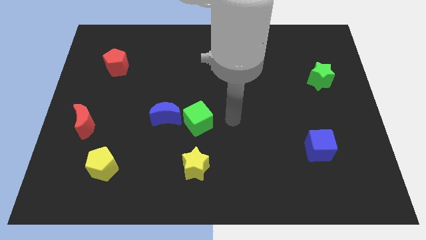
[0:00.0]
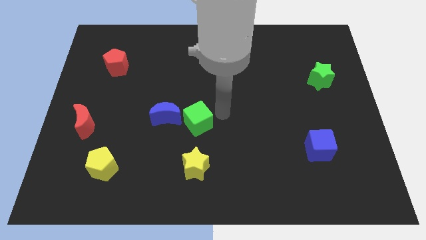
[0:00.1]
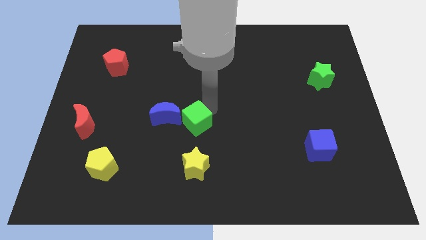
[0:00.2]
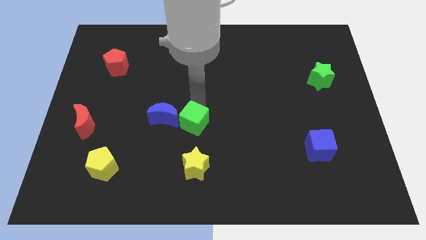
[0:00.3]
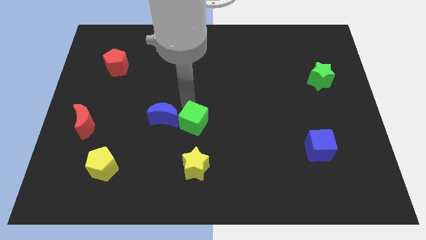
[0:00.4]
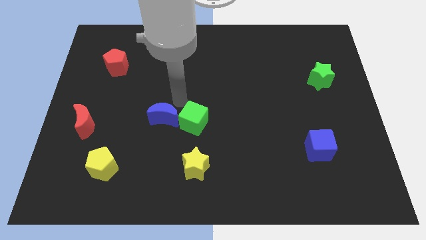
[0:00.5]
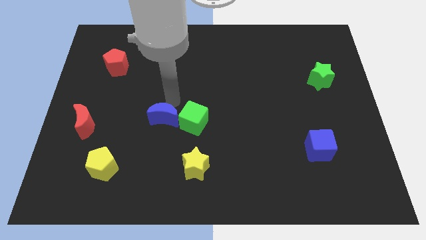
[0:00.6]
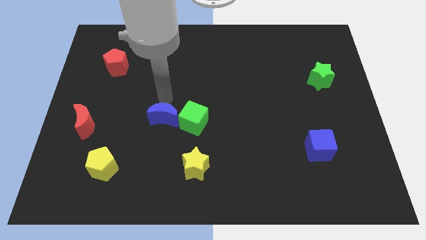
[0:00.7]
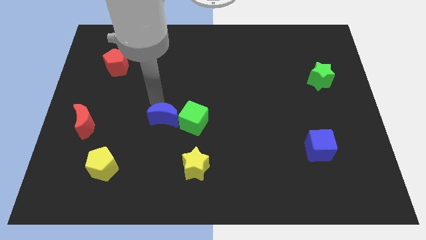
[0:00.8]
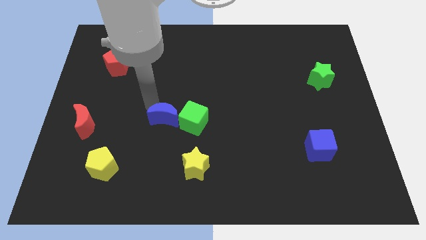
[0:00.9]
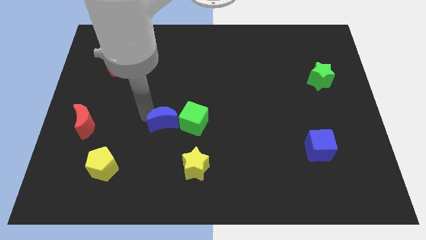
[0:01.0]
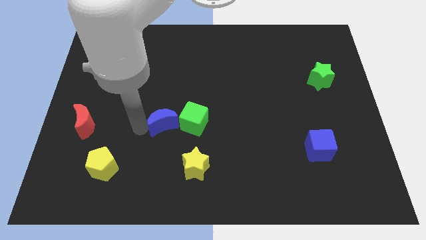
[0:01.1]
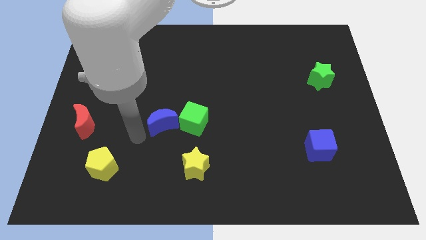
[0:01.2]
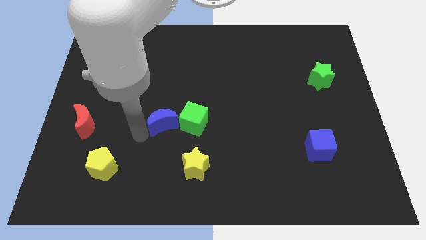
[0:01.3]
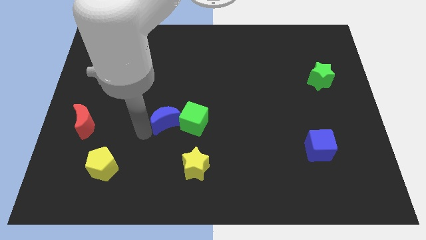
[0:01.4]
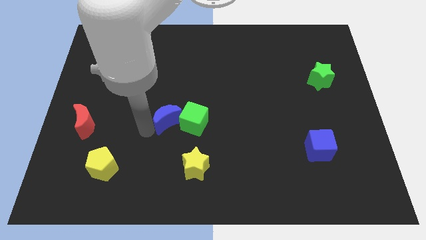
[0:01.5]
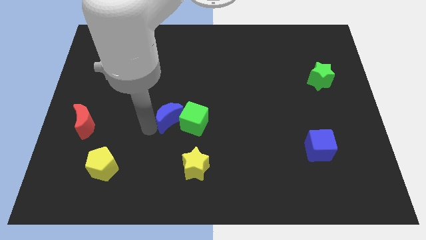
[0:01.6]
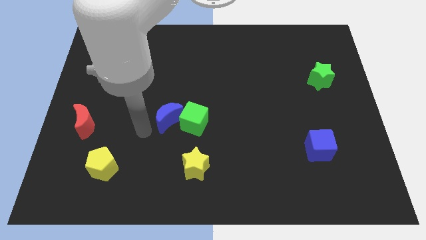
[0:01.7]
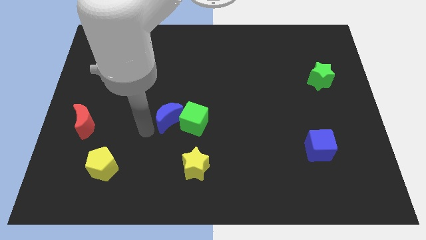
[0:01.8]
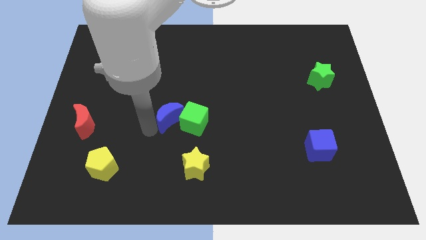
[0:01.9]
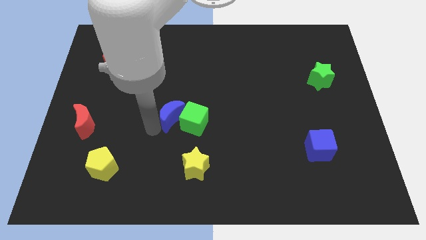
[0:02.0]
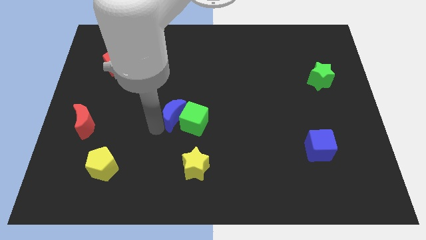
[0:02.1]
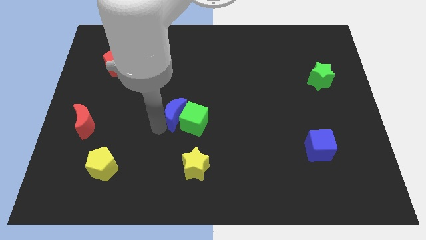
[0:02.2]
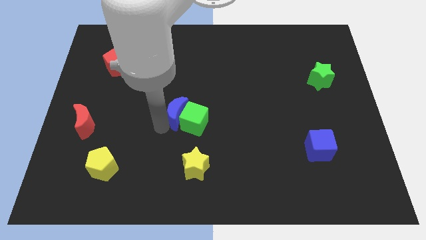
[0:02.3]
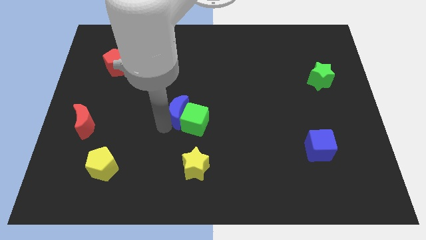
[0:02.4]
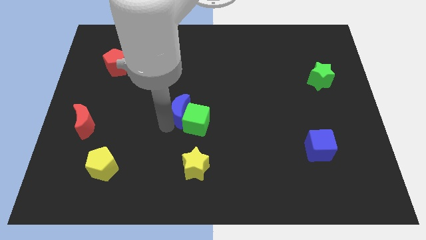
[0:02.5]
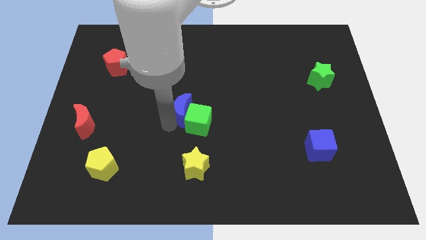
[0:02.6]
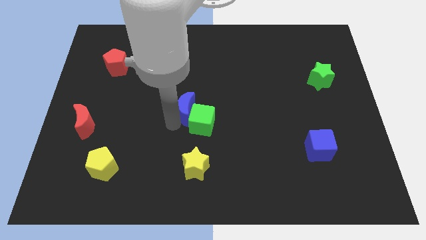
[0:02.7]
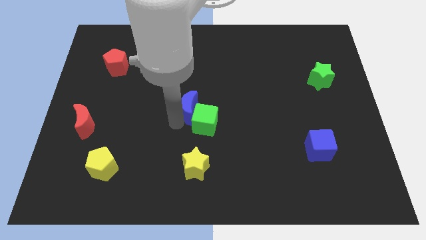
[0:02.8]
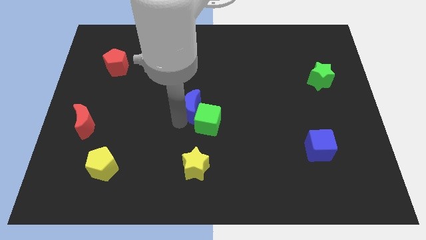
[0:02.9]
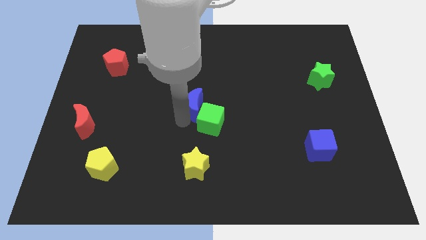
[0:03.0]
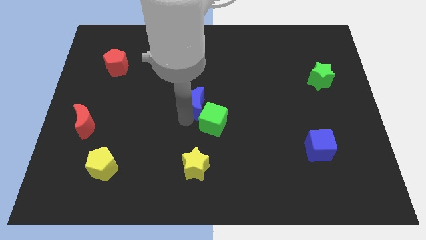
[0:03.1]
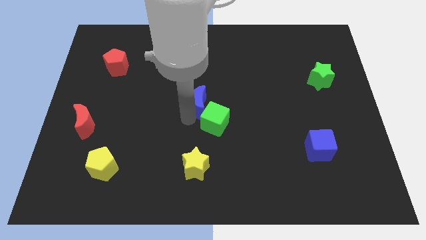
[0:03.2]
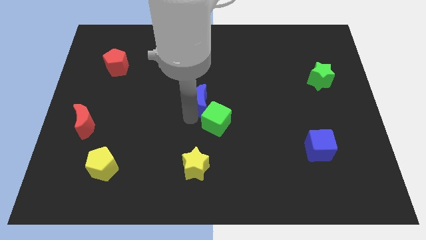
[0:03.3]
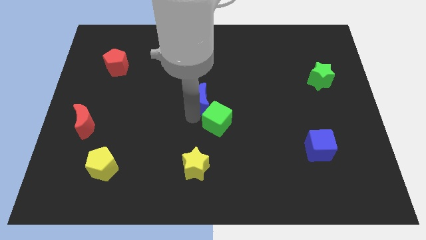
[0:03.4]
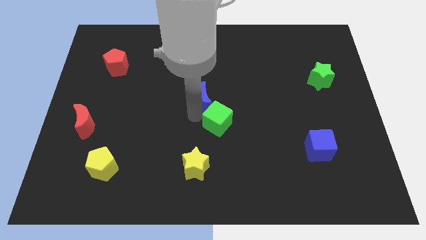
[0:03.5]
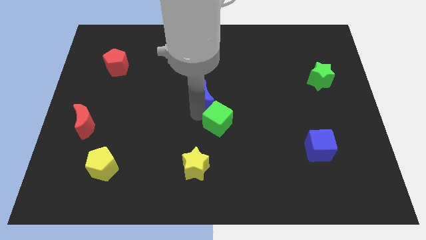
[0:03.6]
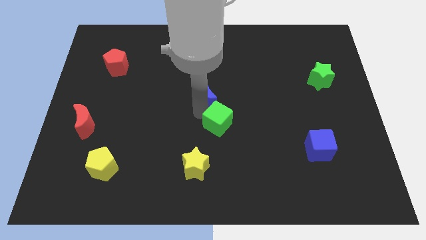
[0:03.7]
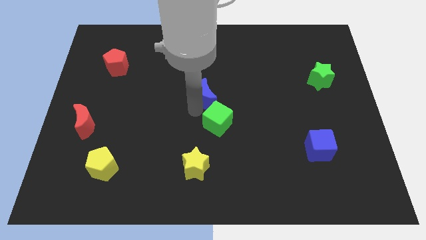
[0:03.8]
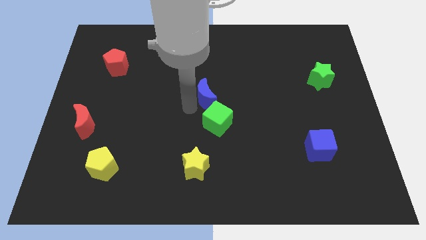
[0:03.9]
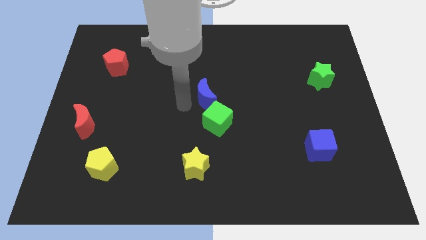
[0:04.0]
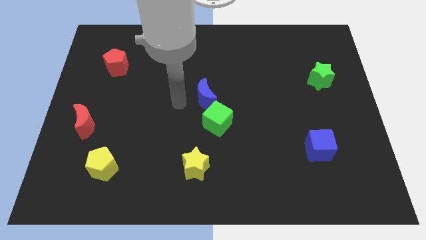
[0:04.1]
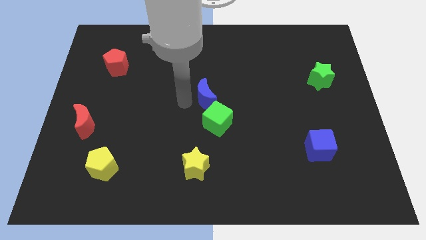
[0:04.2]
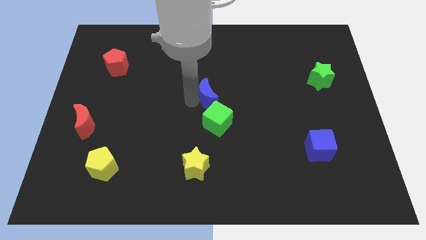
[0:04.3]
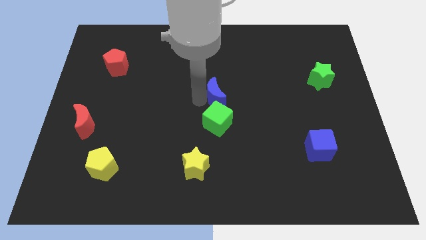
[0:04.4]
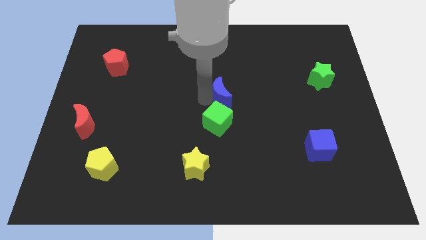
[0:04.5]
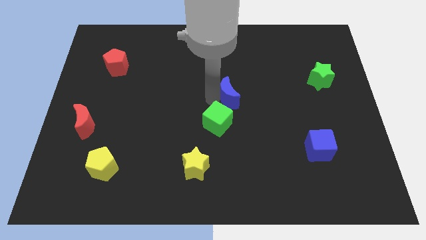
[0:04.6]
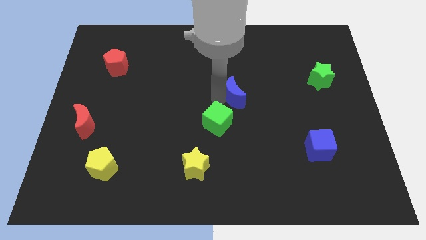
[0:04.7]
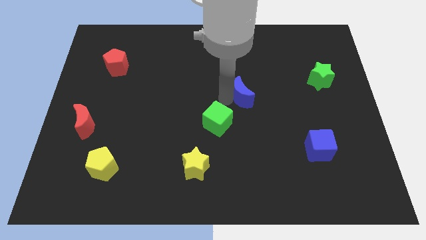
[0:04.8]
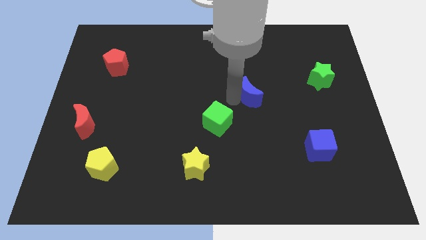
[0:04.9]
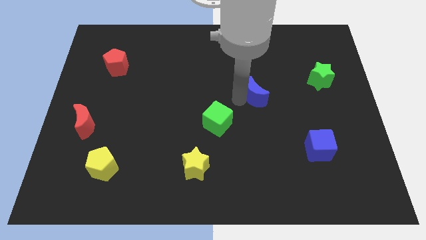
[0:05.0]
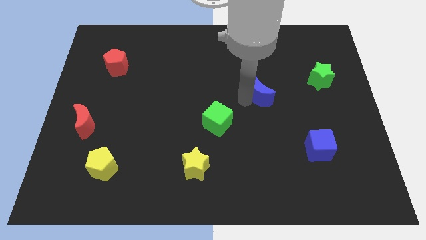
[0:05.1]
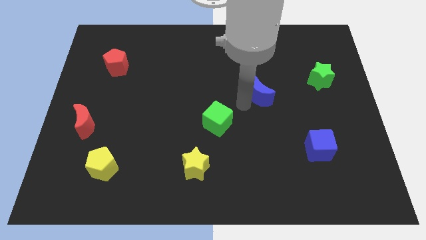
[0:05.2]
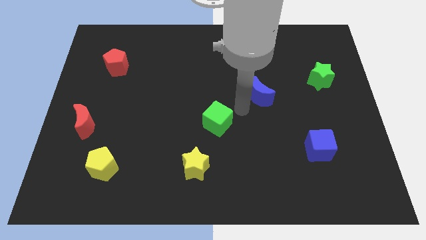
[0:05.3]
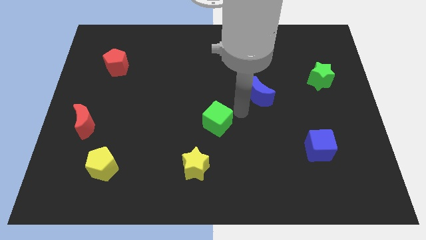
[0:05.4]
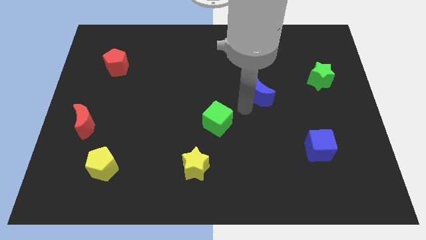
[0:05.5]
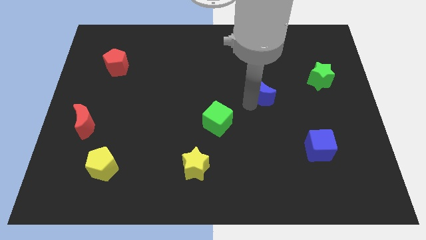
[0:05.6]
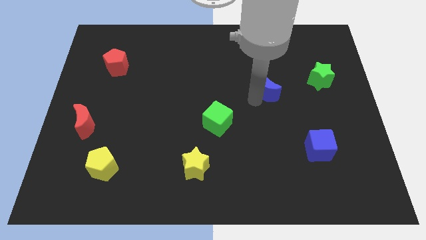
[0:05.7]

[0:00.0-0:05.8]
slide the blue moon to the left of the green star

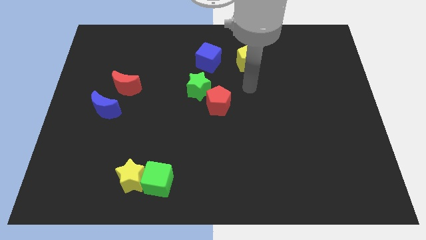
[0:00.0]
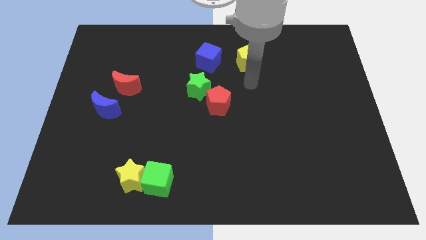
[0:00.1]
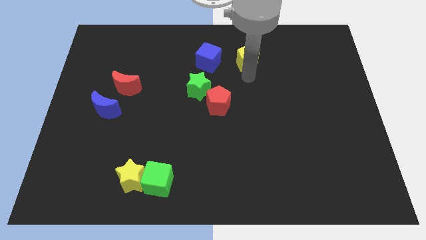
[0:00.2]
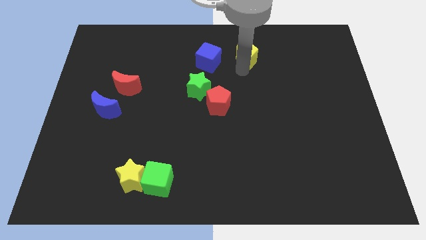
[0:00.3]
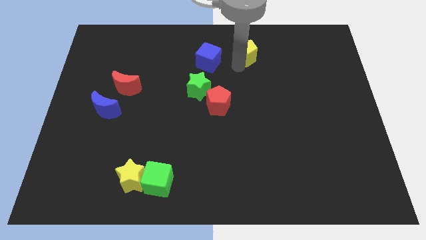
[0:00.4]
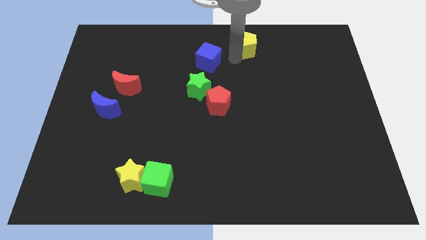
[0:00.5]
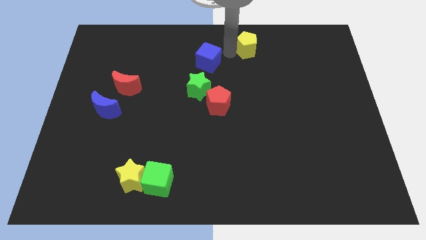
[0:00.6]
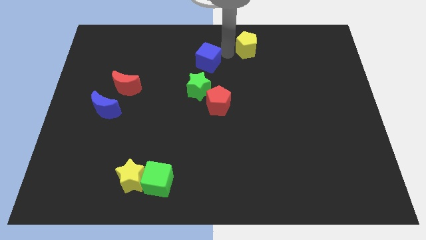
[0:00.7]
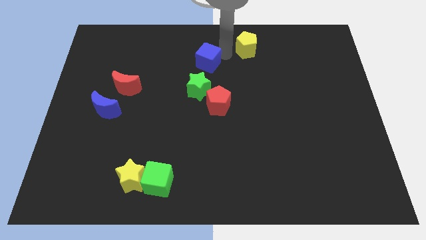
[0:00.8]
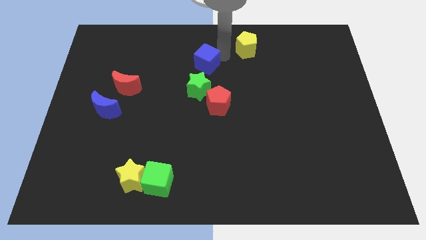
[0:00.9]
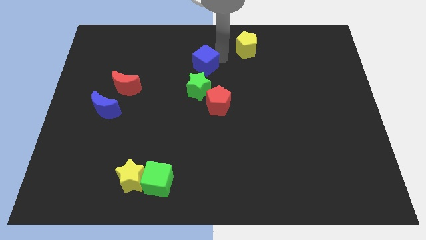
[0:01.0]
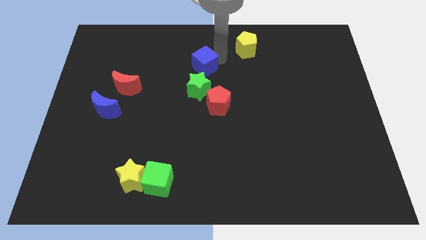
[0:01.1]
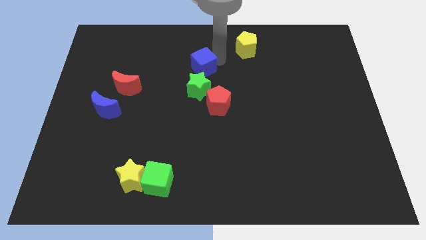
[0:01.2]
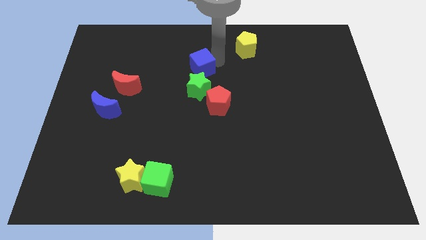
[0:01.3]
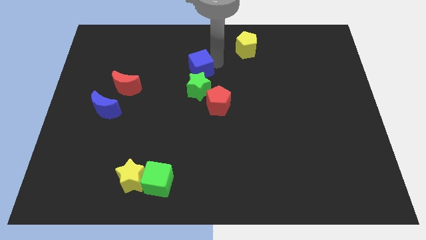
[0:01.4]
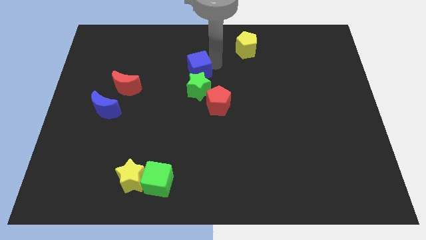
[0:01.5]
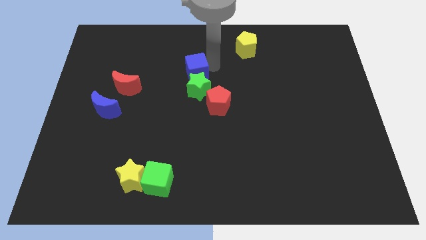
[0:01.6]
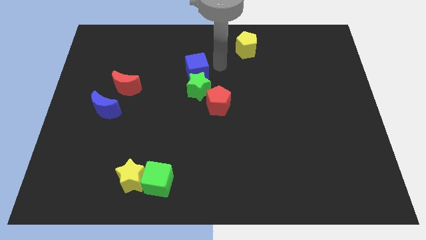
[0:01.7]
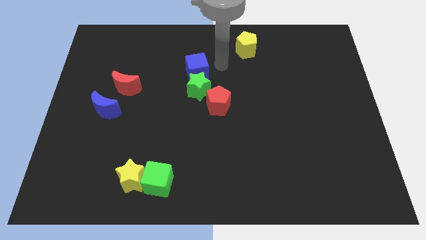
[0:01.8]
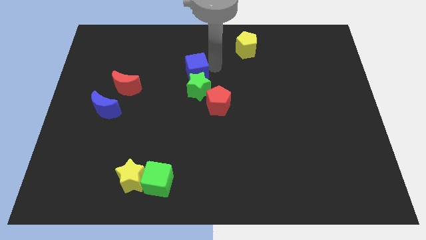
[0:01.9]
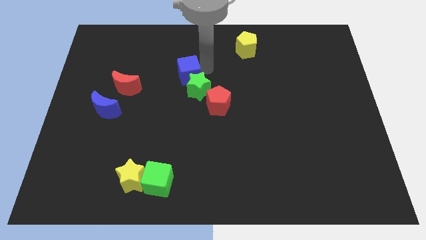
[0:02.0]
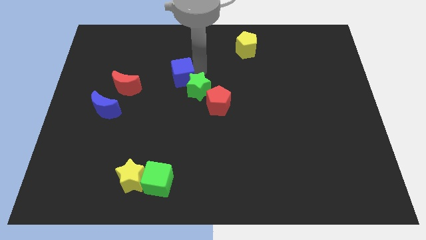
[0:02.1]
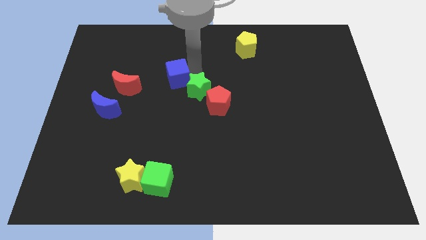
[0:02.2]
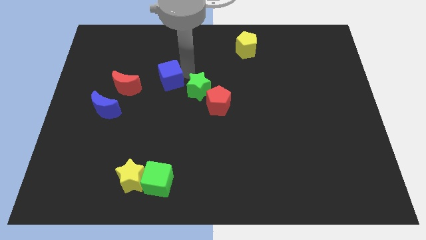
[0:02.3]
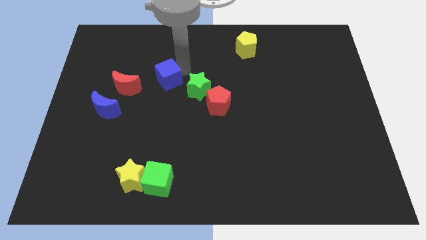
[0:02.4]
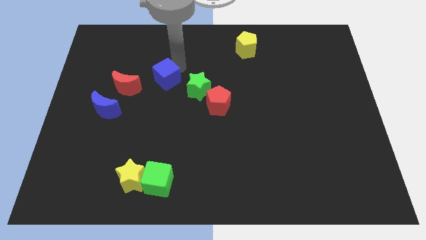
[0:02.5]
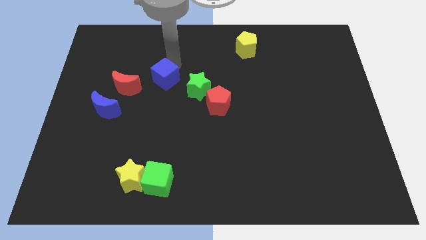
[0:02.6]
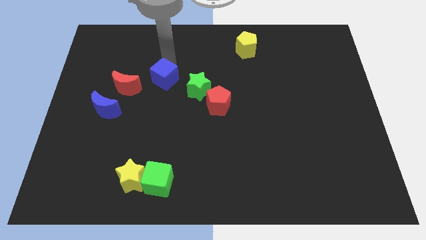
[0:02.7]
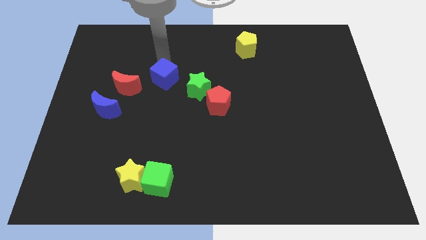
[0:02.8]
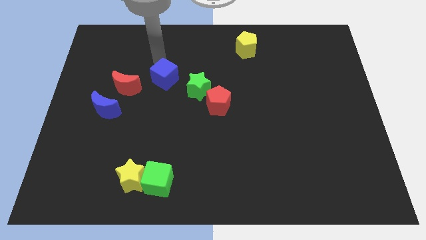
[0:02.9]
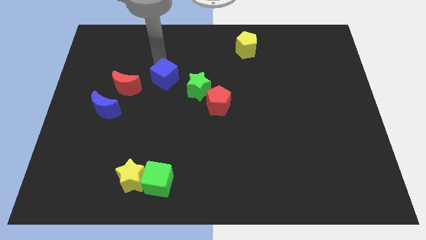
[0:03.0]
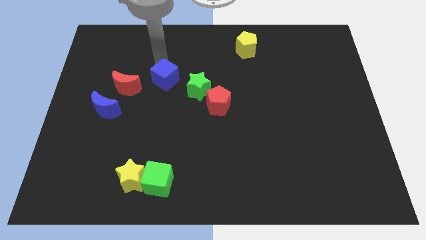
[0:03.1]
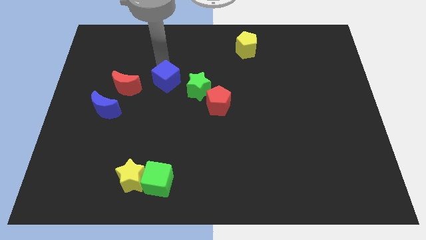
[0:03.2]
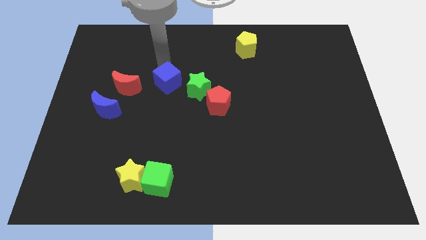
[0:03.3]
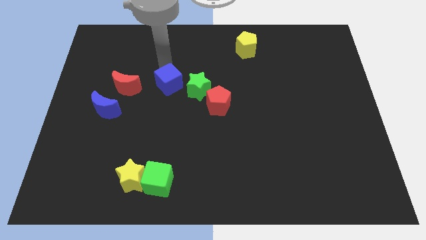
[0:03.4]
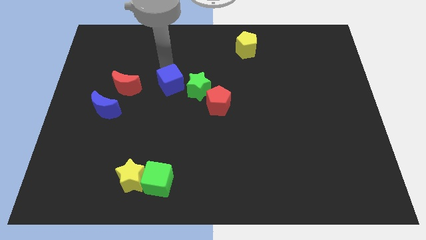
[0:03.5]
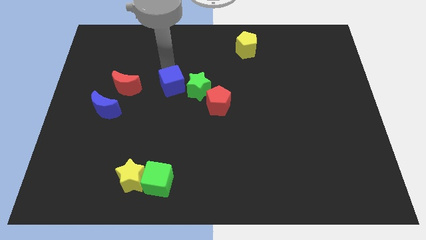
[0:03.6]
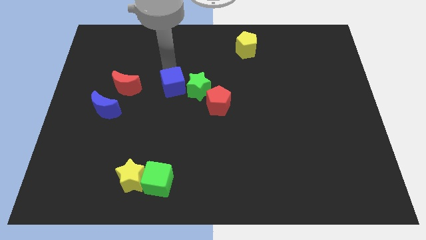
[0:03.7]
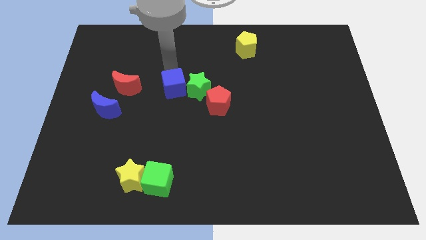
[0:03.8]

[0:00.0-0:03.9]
put the blue cube to the bottom left side of the green star
